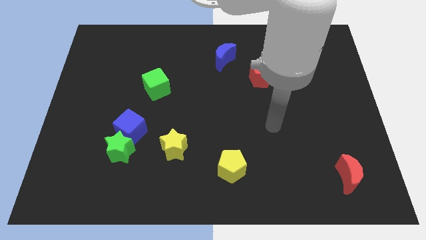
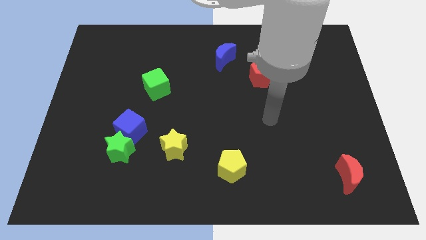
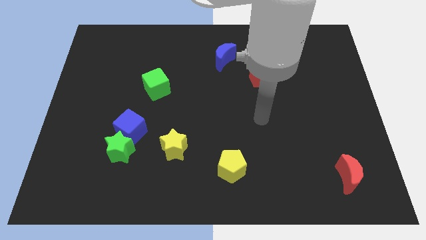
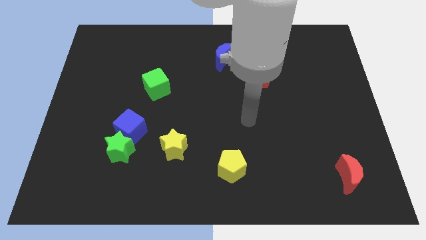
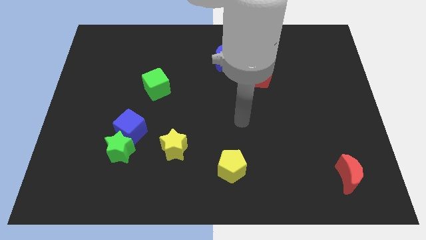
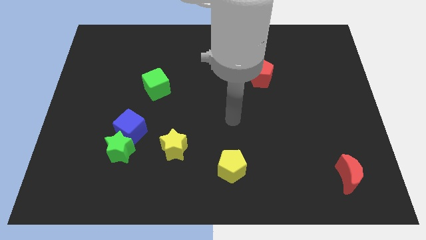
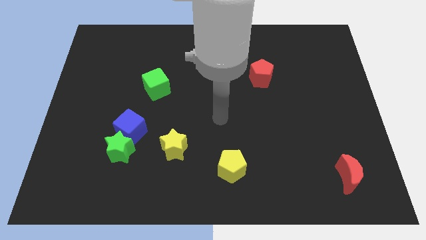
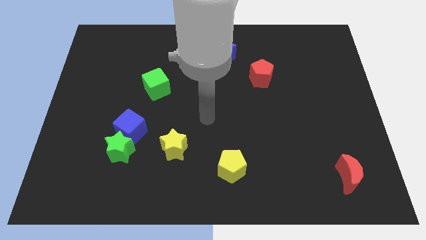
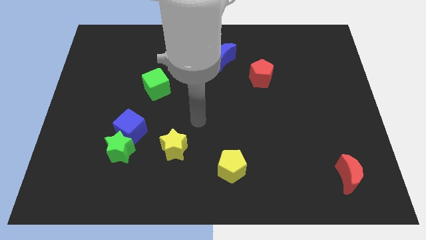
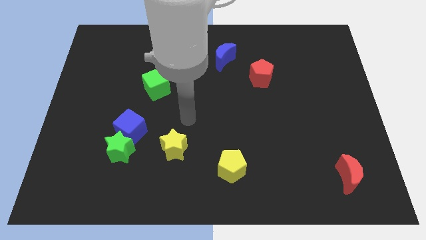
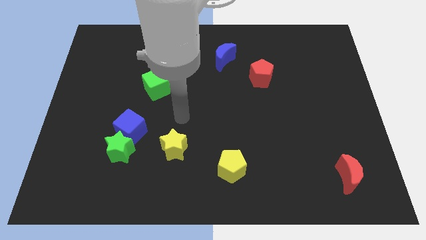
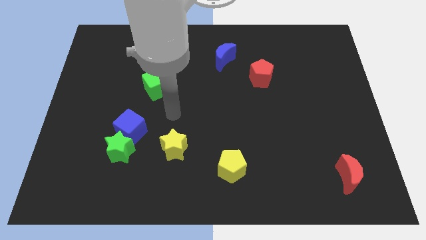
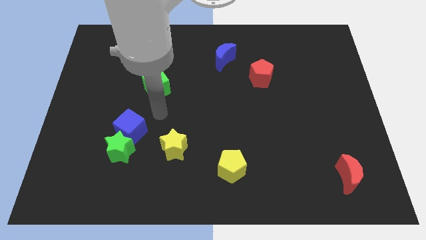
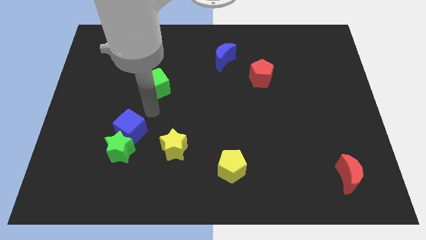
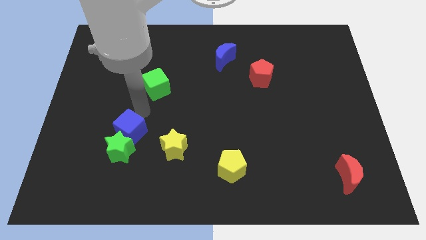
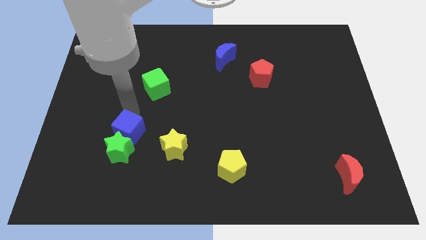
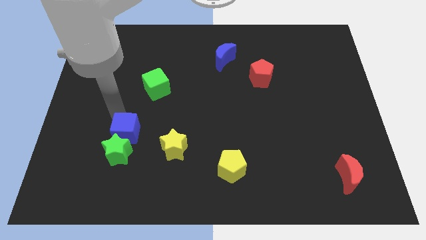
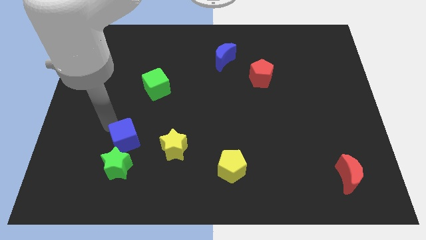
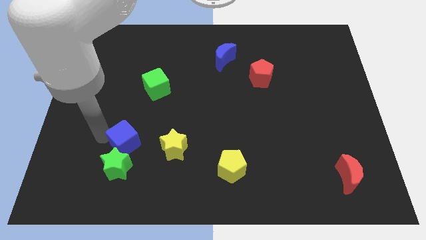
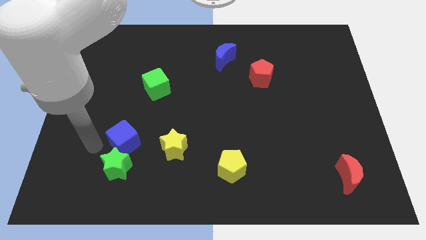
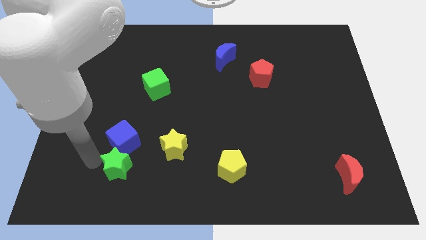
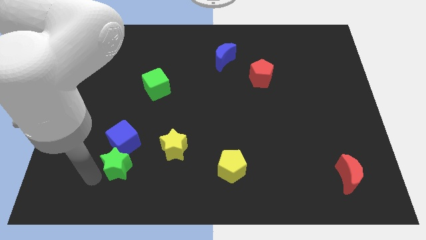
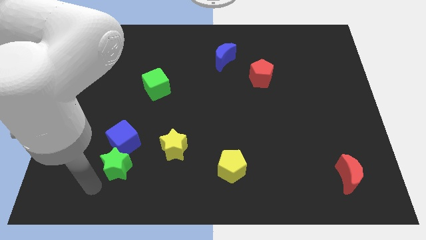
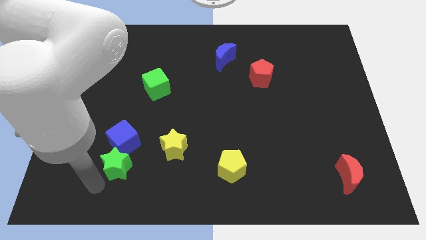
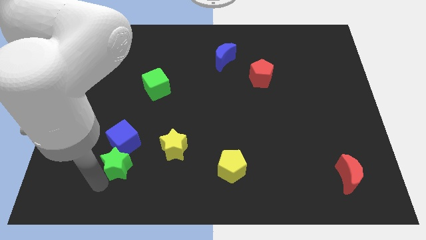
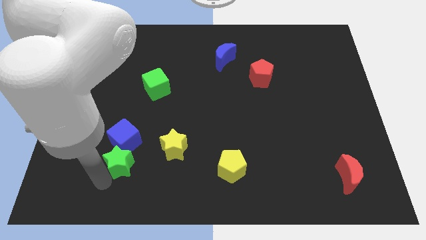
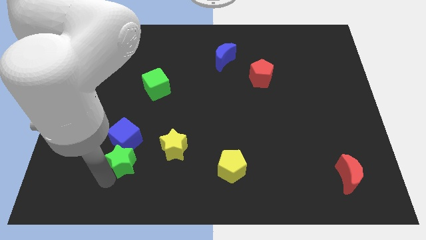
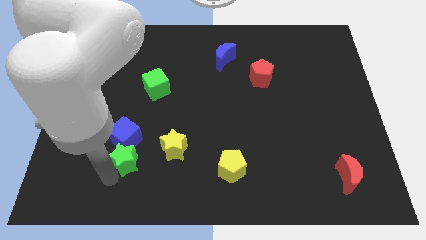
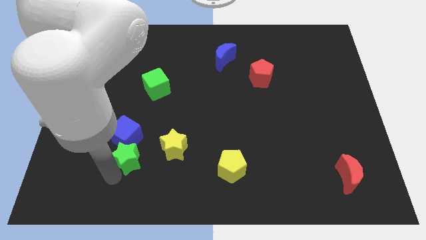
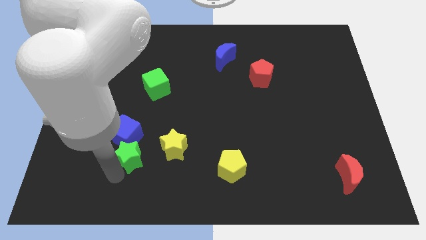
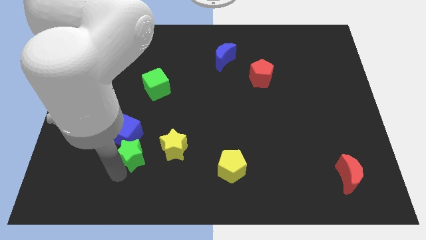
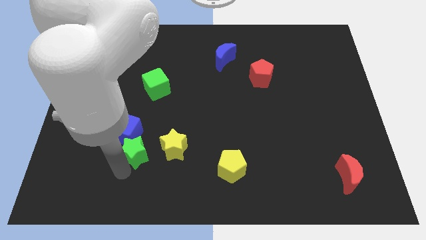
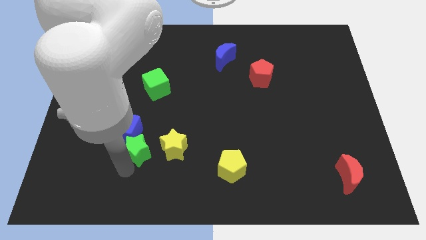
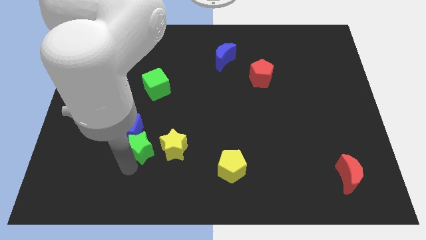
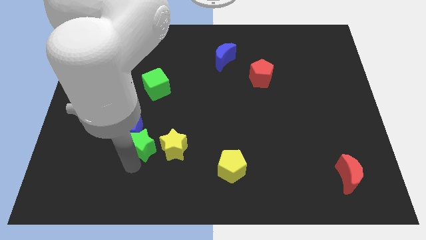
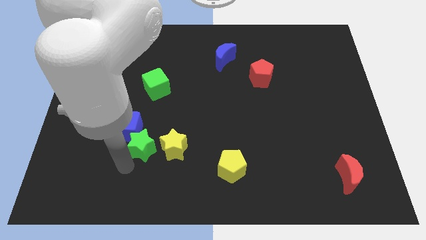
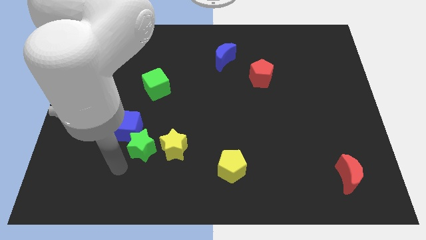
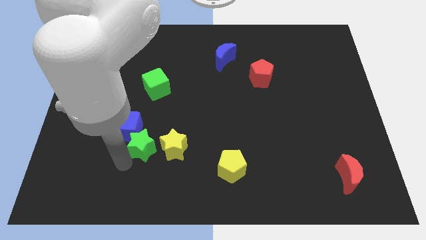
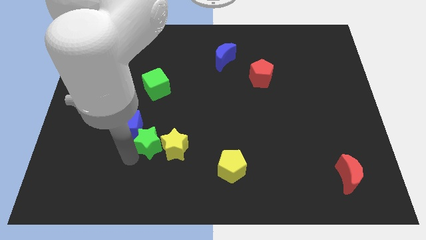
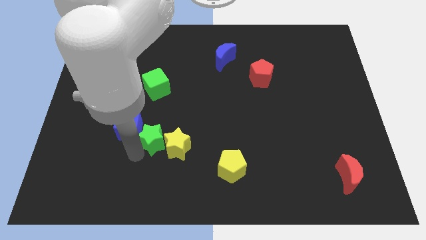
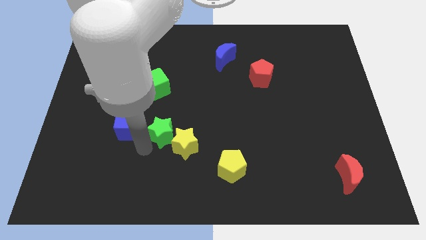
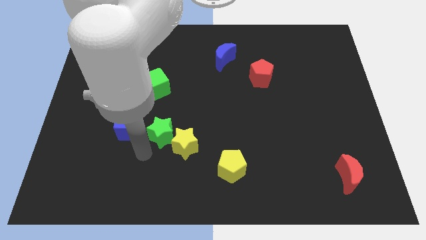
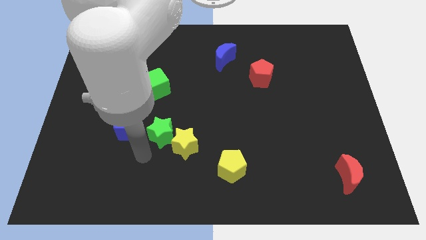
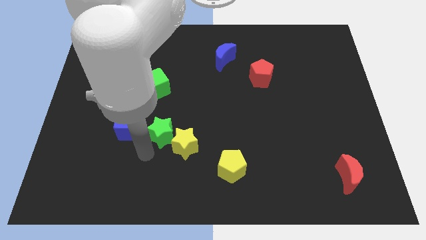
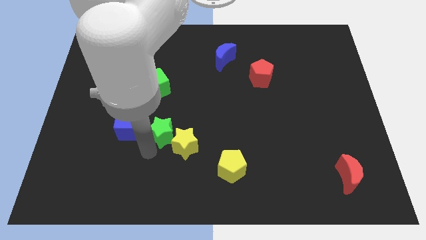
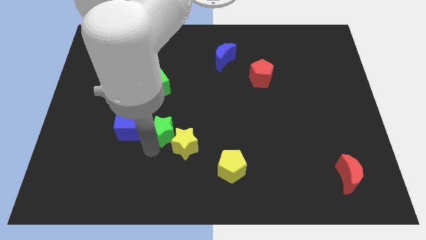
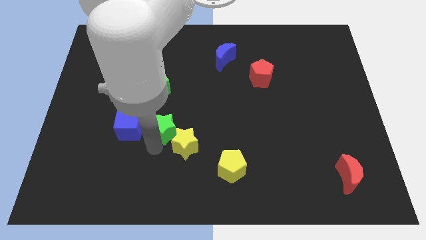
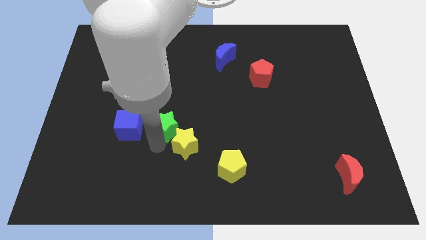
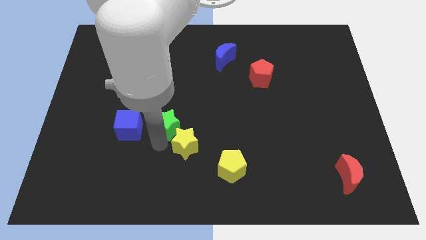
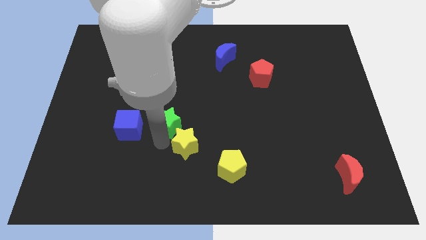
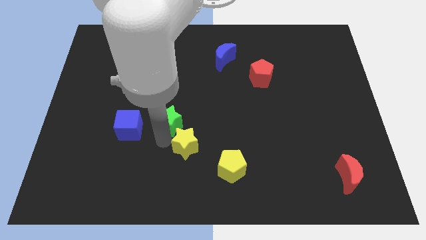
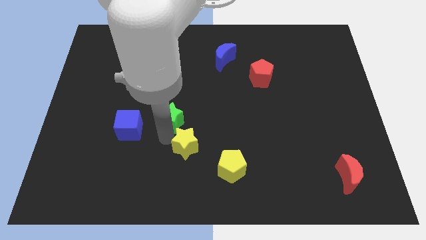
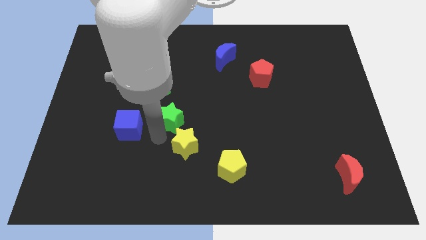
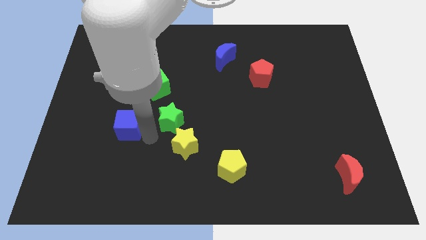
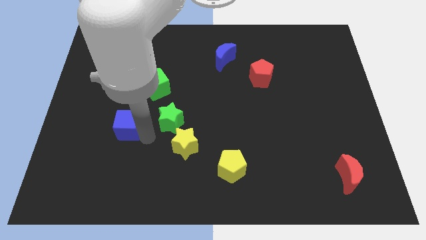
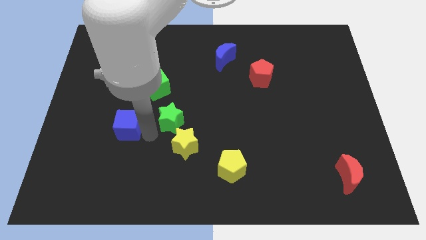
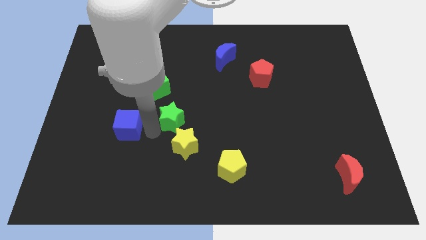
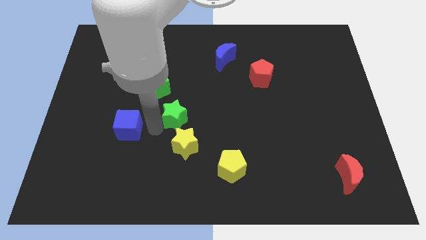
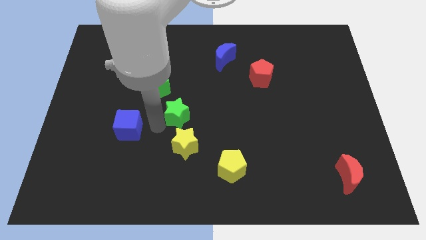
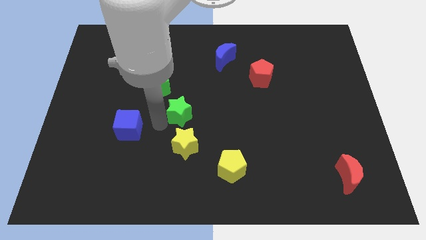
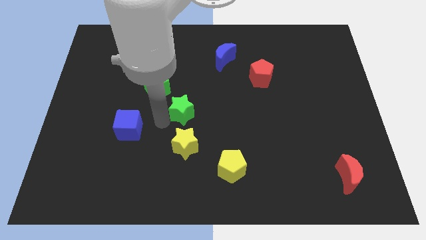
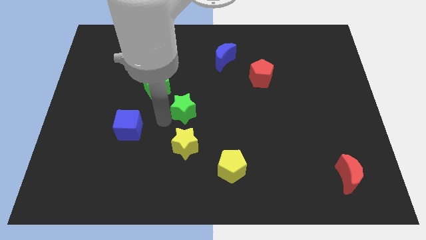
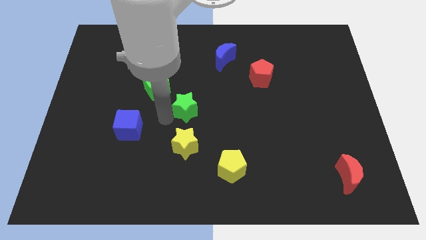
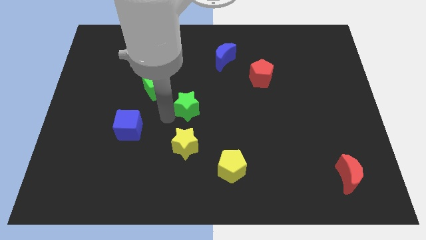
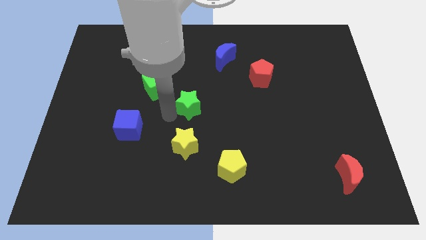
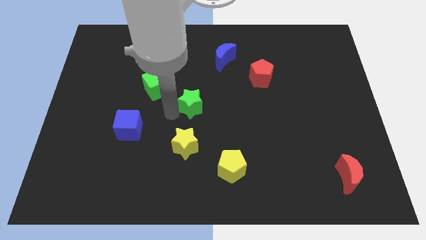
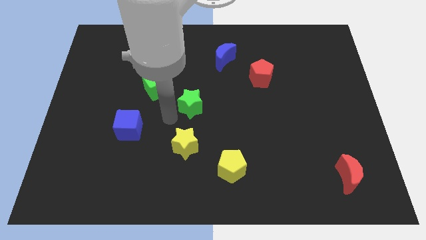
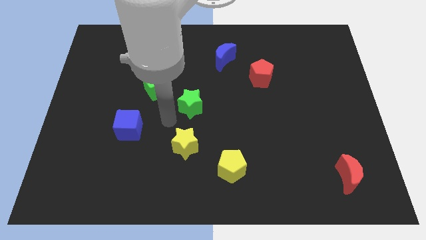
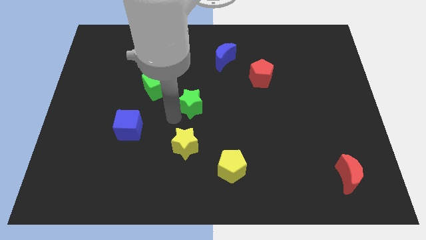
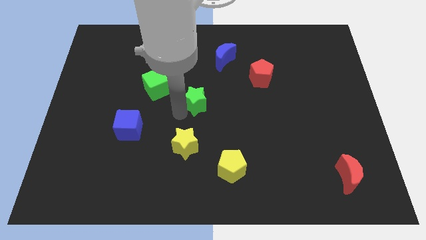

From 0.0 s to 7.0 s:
move the green star diagonally upwards and to the right

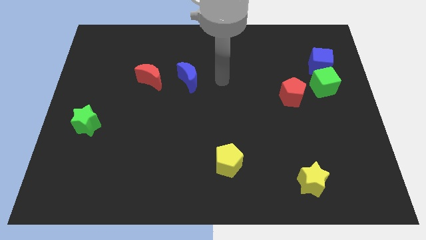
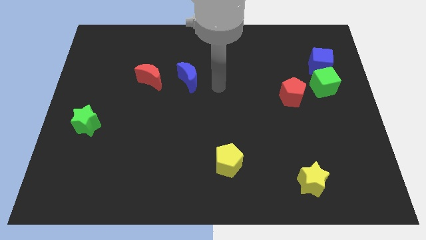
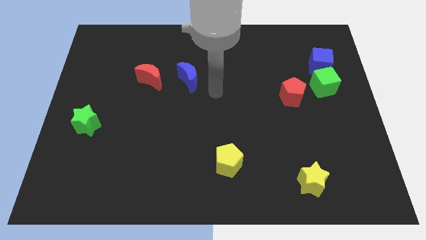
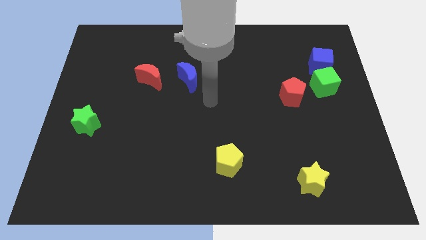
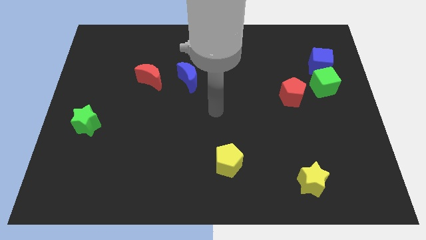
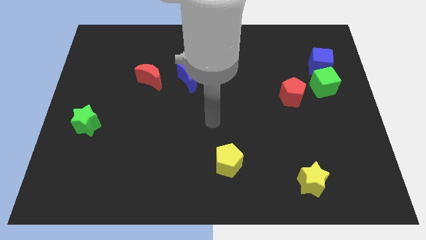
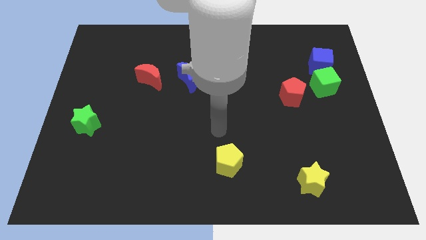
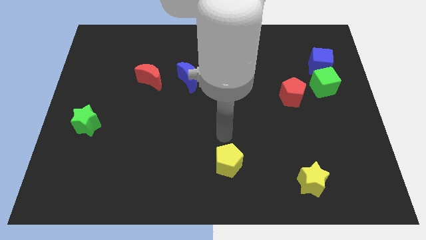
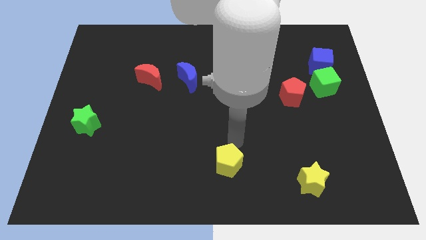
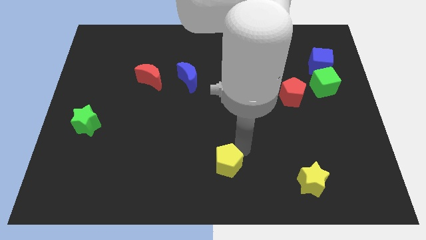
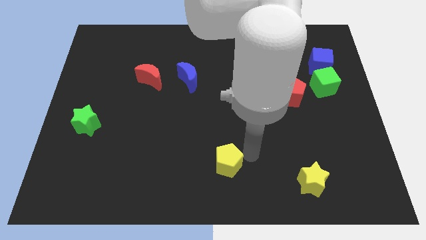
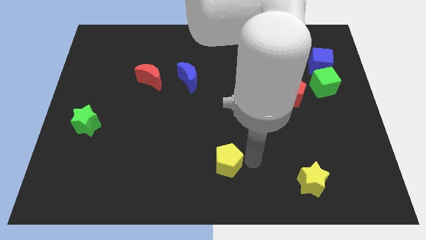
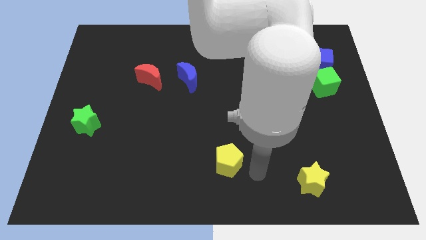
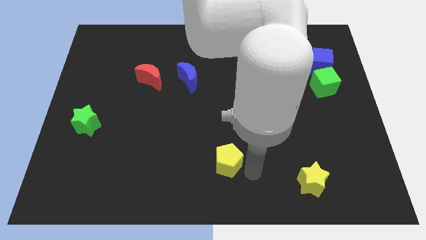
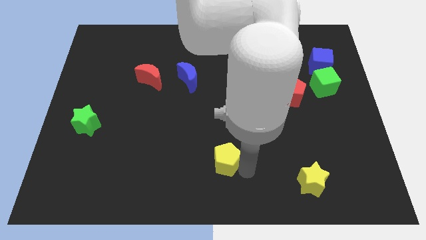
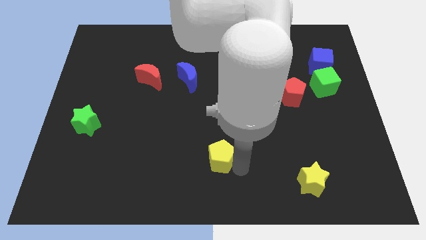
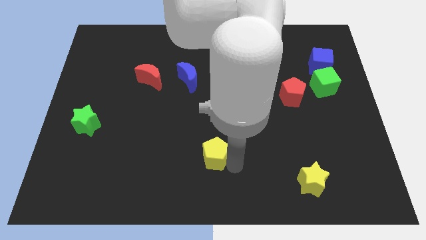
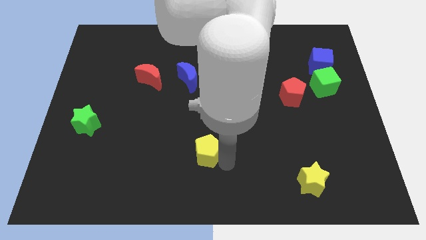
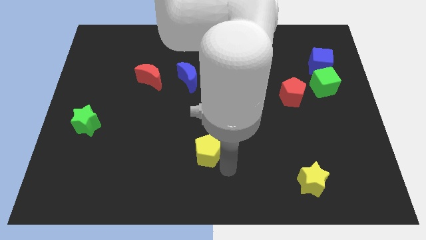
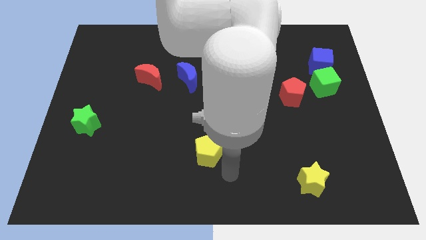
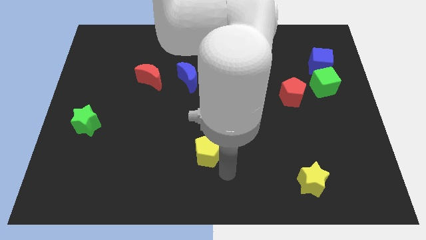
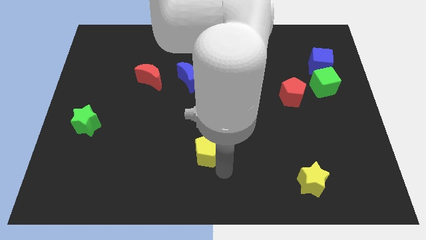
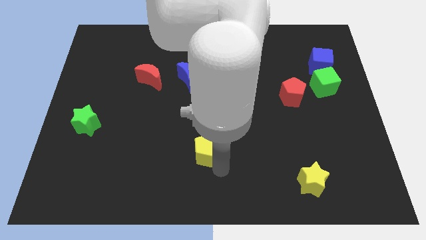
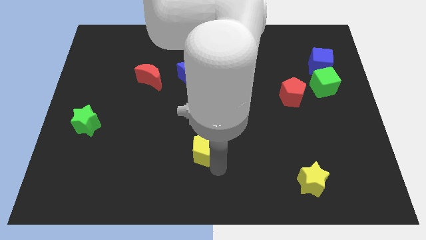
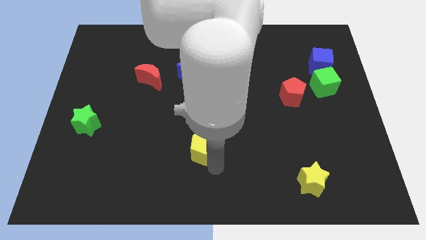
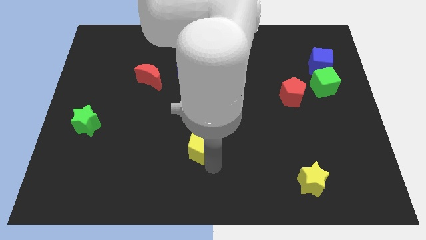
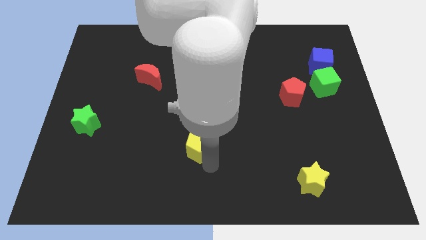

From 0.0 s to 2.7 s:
slightly push the yellow pentagon up and left diagonally
